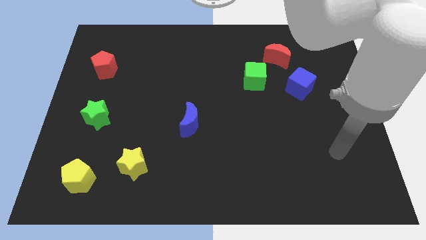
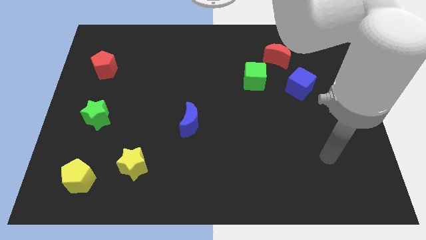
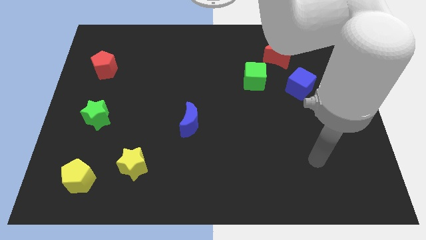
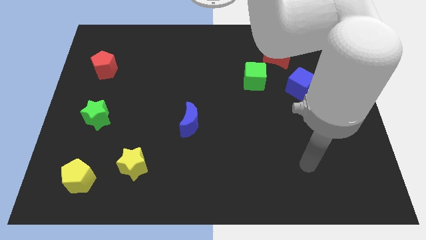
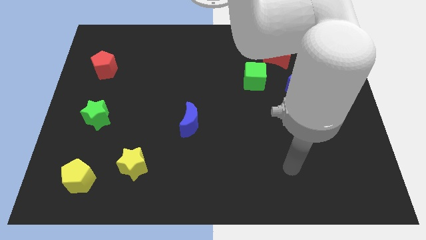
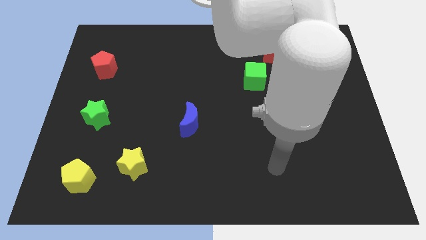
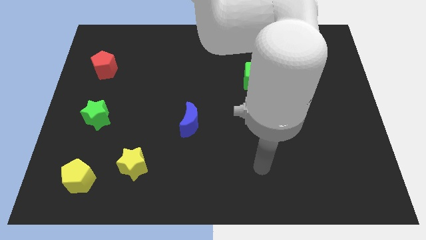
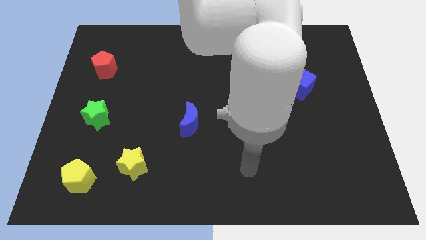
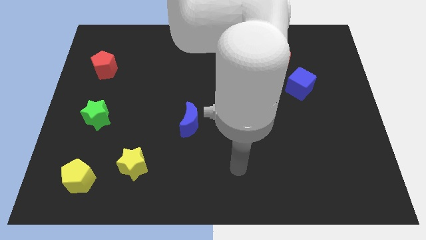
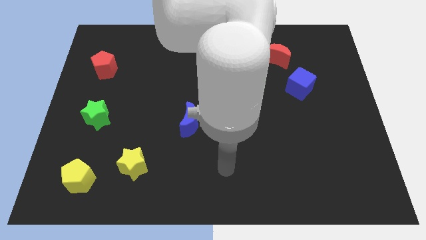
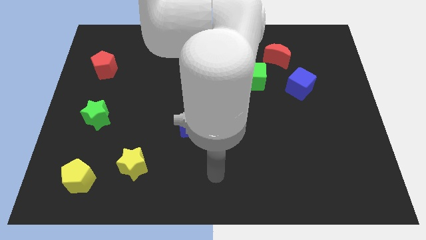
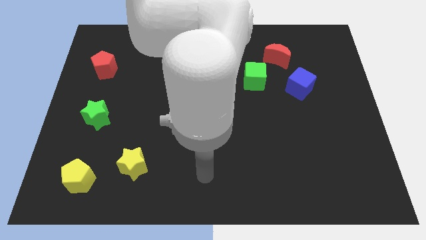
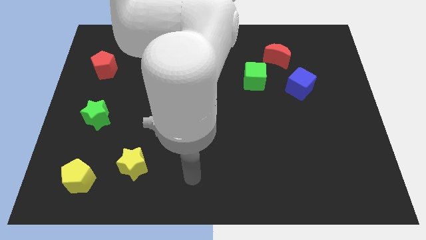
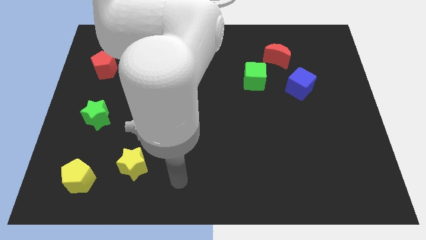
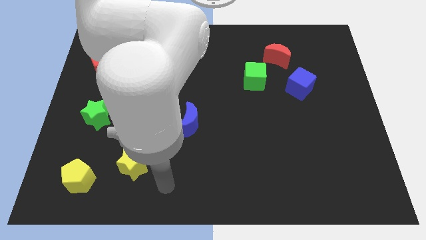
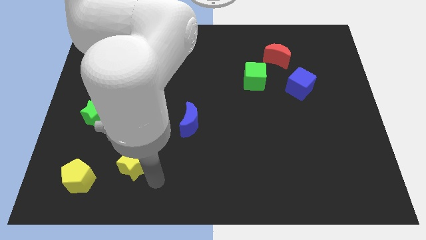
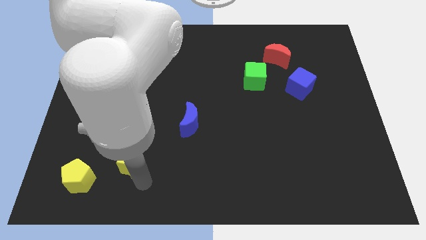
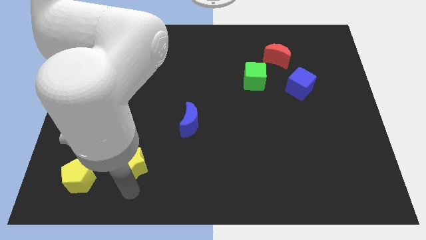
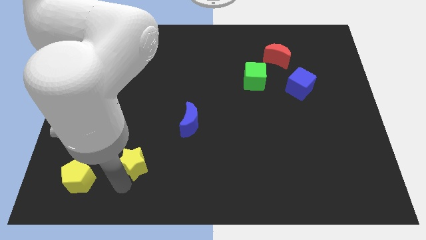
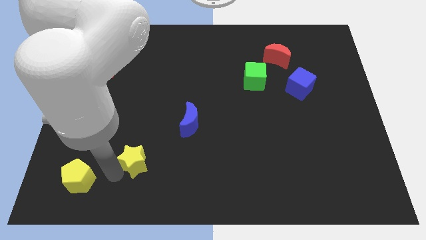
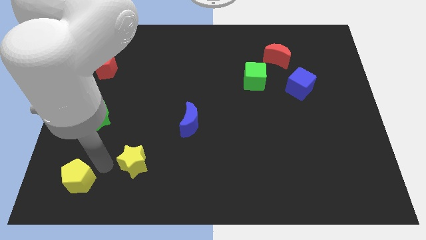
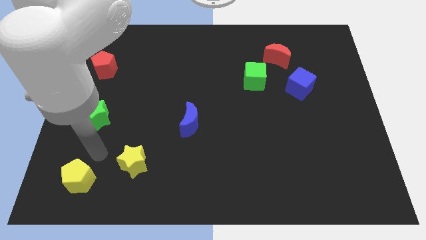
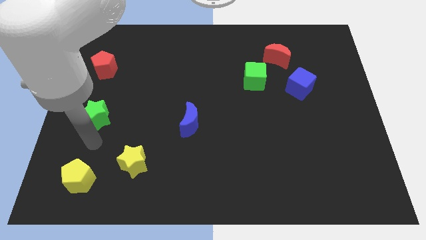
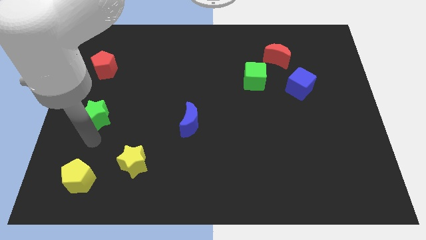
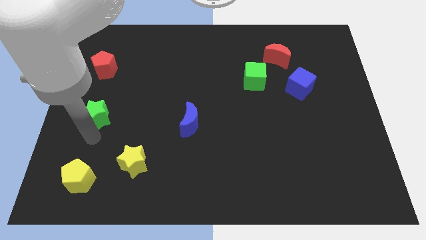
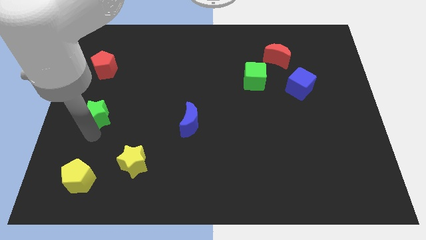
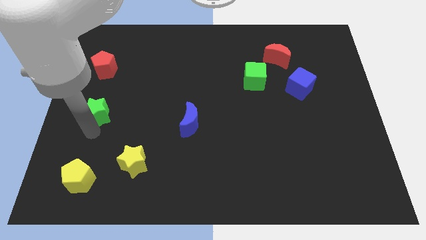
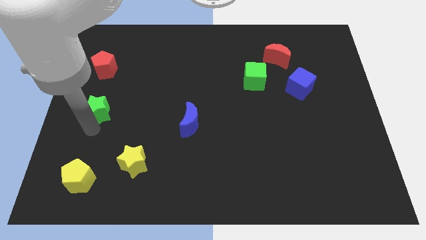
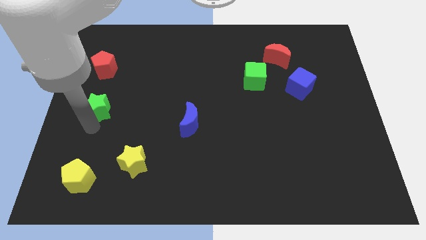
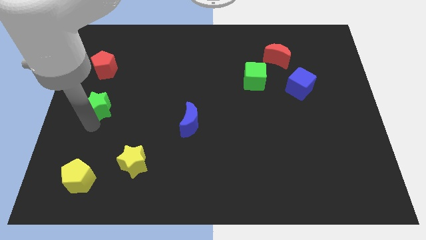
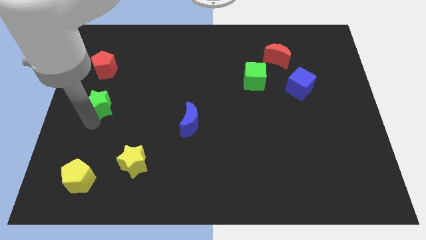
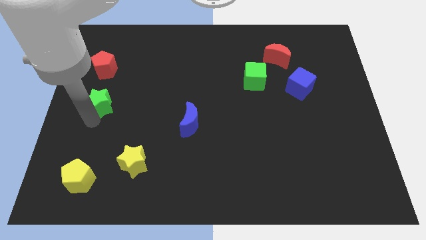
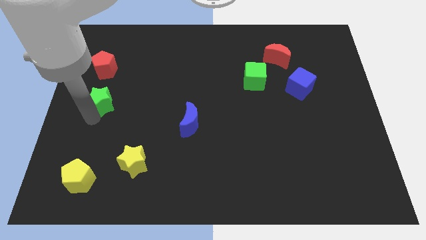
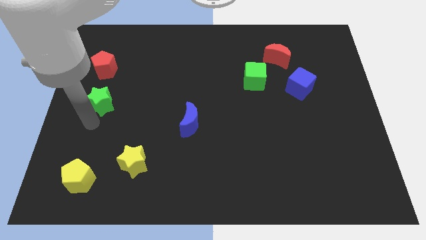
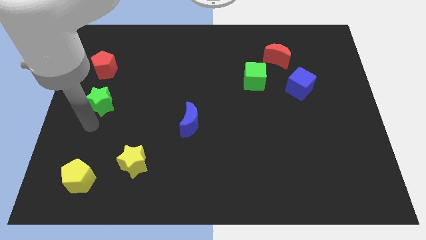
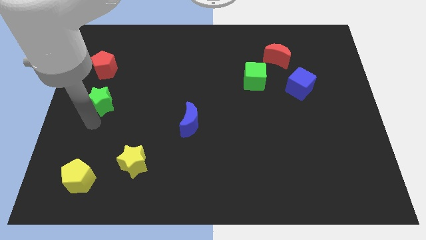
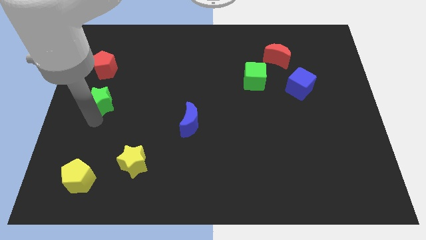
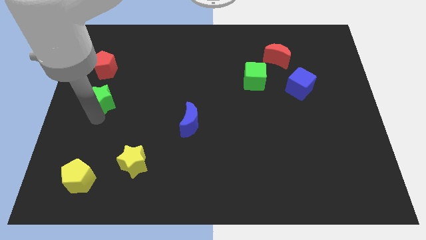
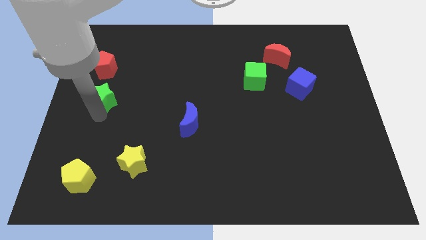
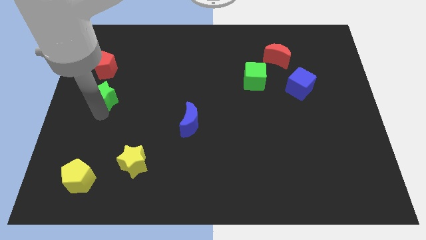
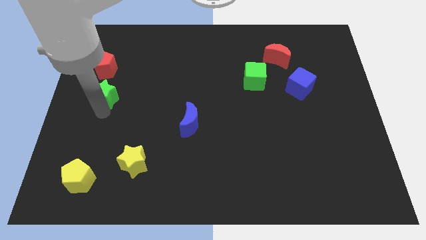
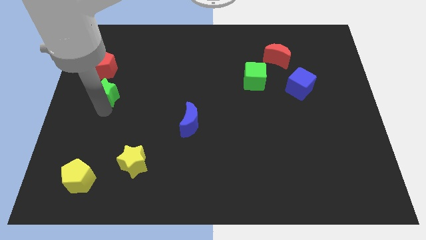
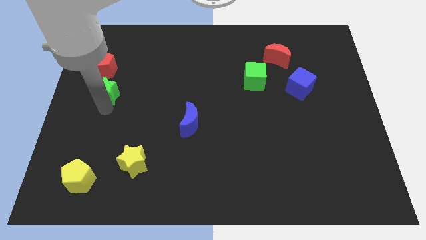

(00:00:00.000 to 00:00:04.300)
slightly push the green star up

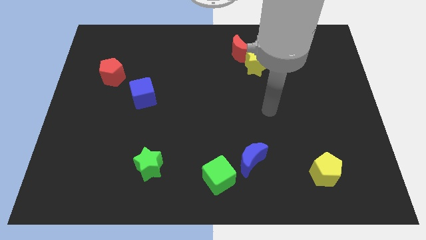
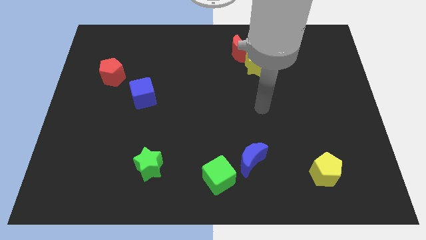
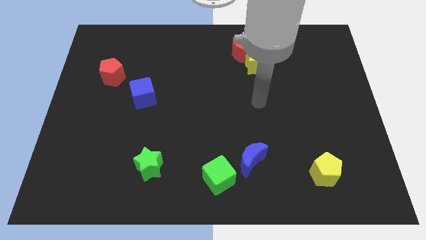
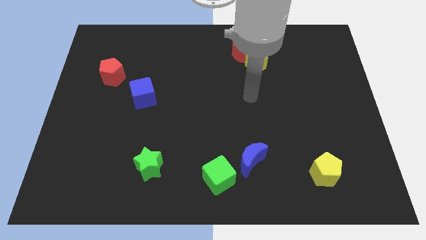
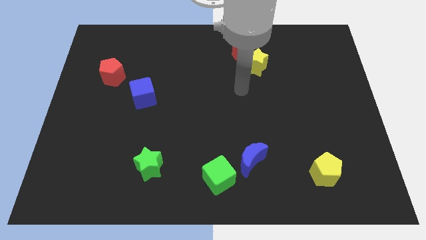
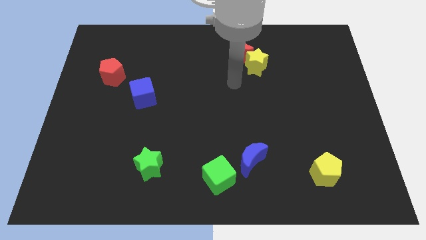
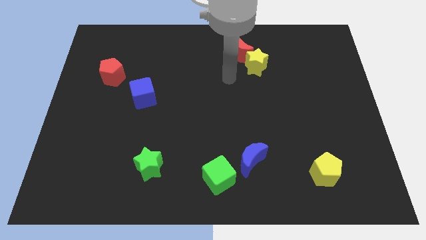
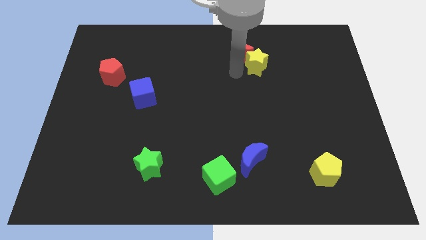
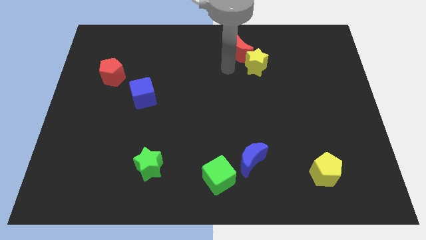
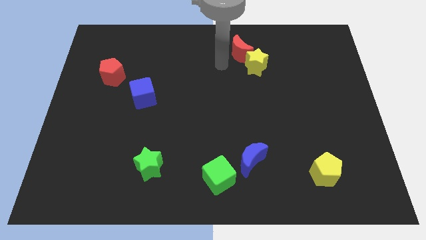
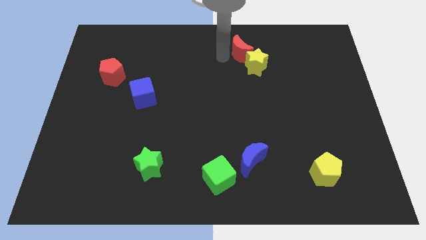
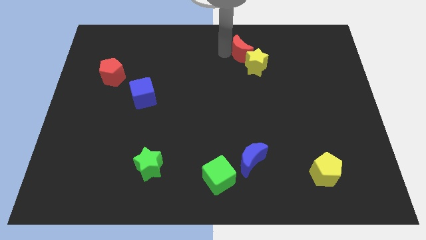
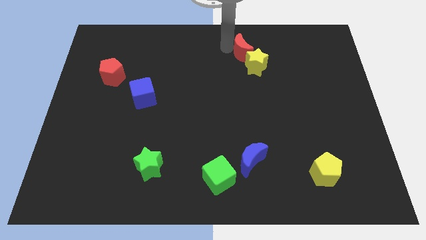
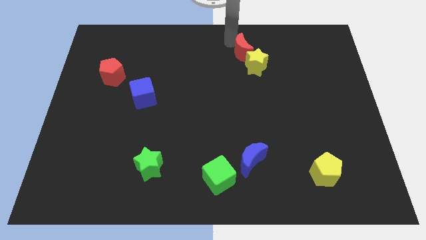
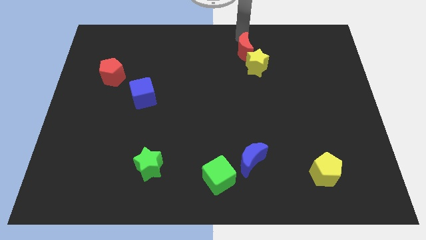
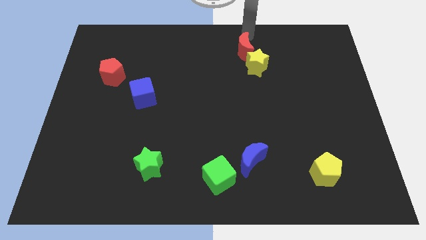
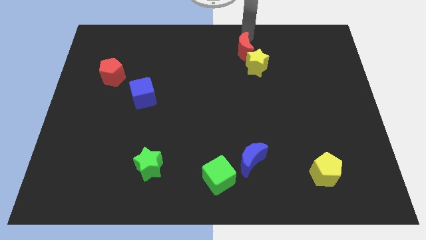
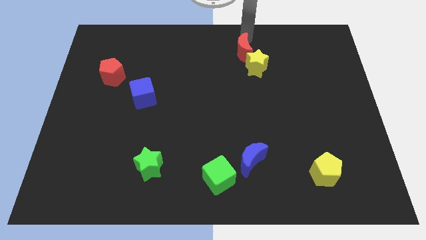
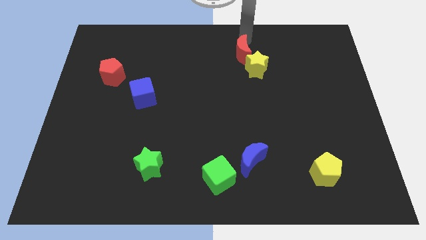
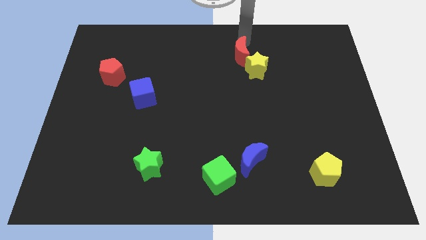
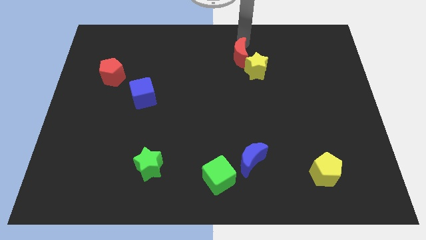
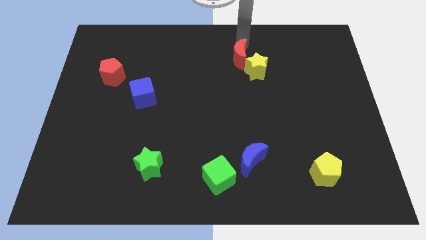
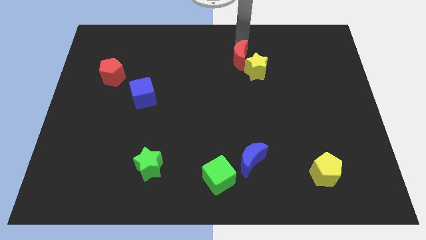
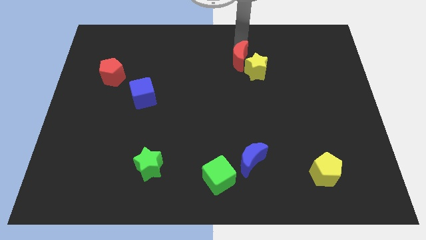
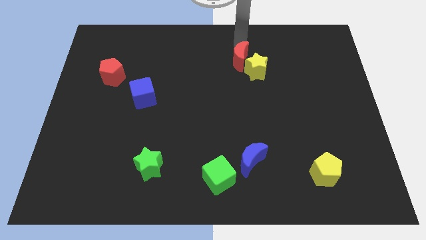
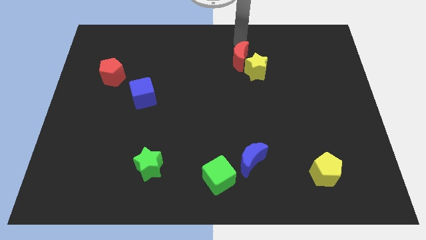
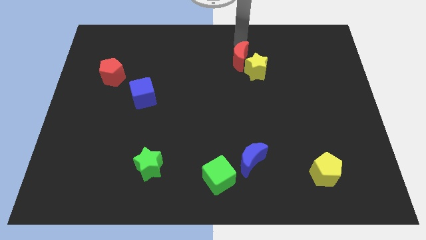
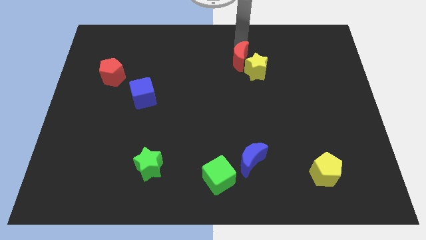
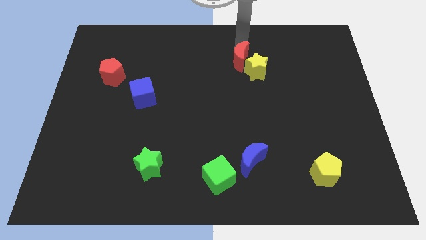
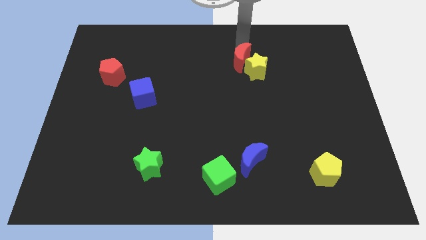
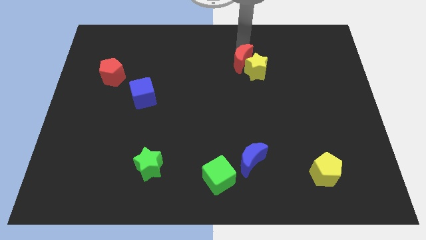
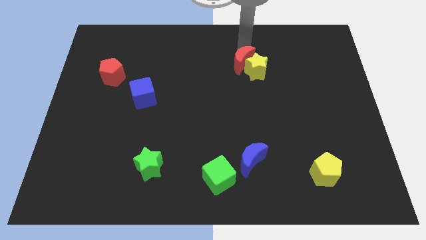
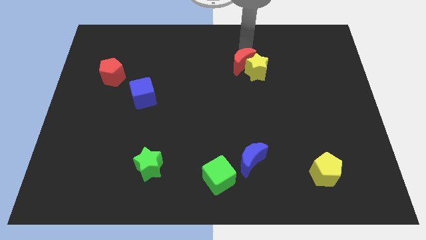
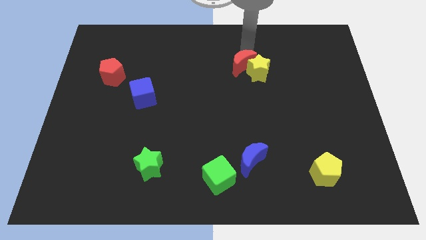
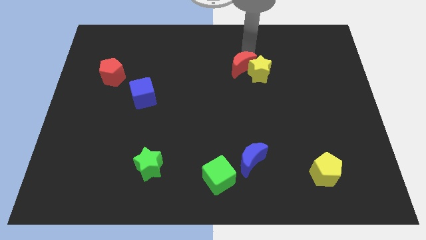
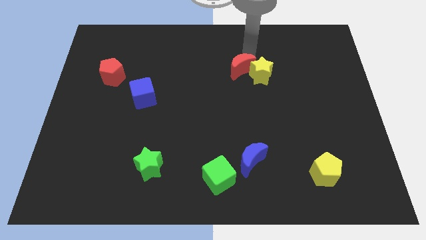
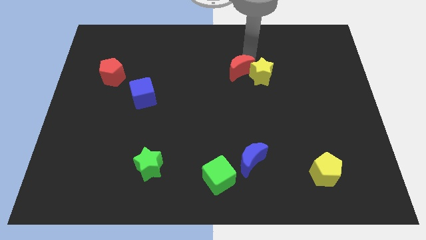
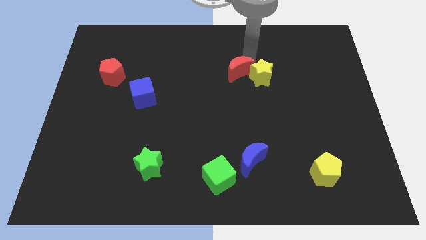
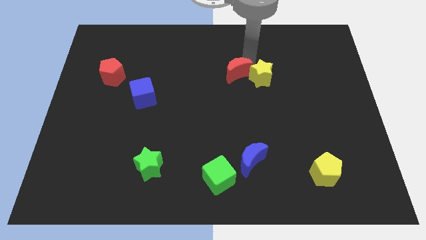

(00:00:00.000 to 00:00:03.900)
move the red moon down a little
